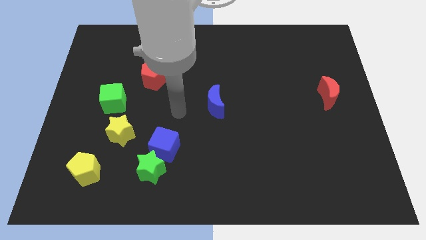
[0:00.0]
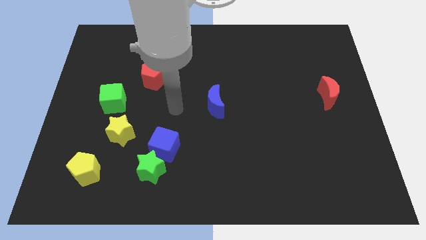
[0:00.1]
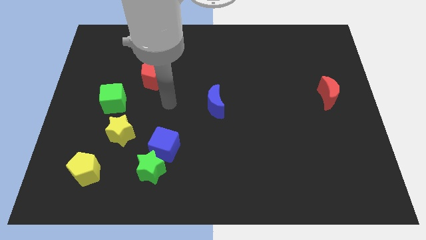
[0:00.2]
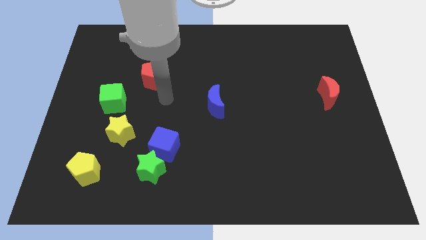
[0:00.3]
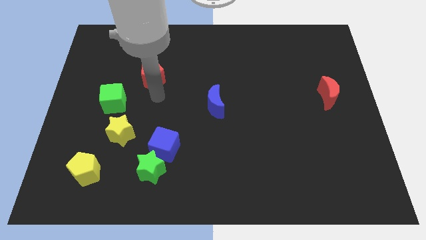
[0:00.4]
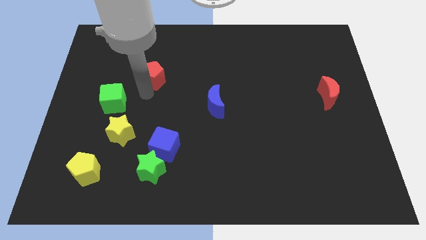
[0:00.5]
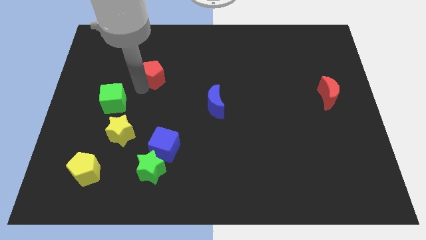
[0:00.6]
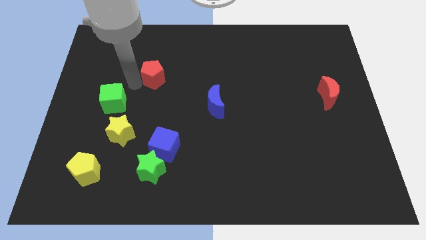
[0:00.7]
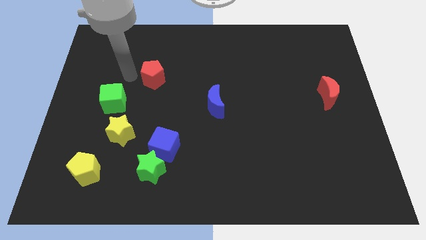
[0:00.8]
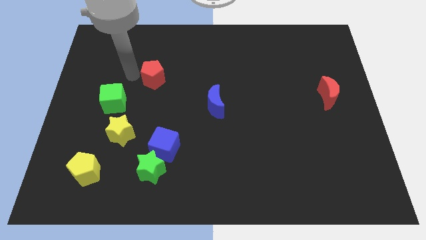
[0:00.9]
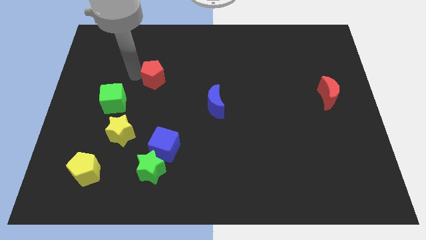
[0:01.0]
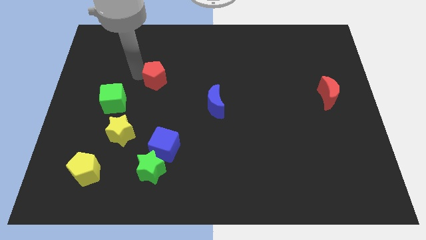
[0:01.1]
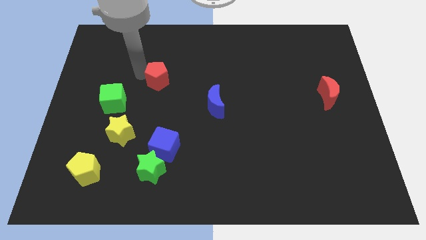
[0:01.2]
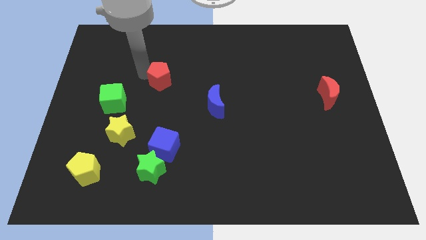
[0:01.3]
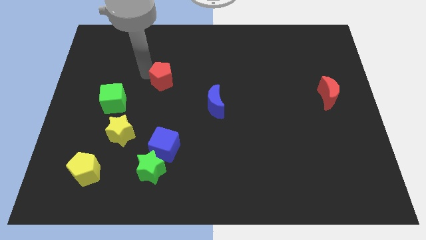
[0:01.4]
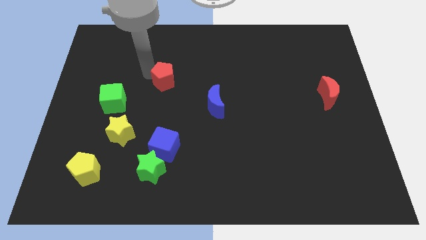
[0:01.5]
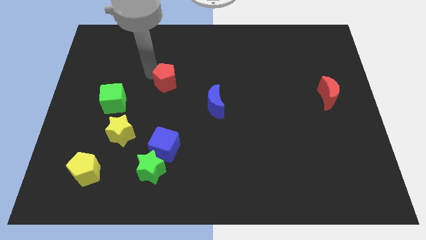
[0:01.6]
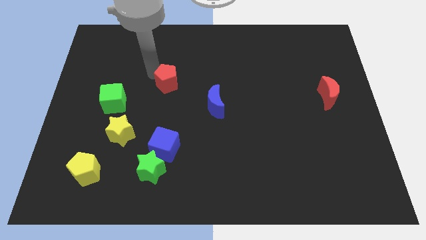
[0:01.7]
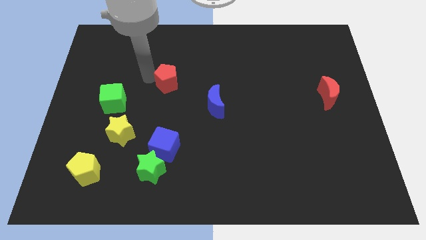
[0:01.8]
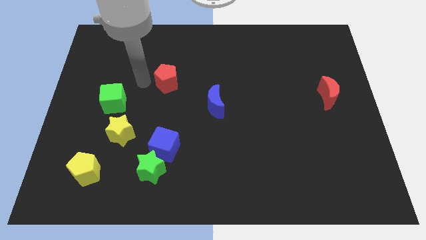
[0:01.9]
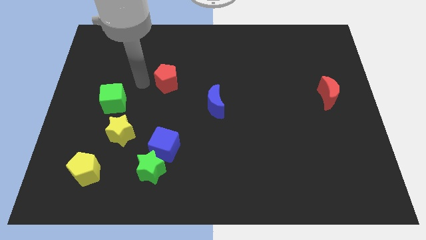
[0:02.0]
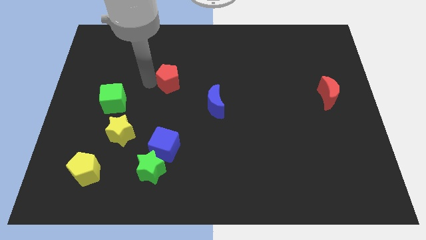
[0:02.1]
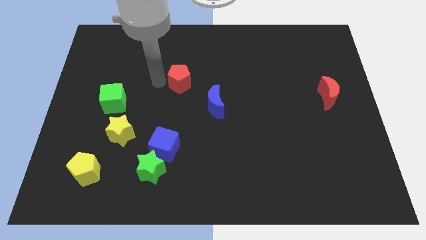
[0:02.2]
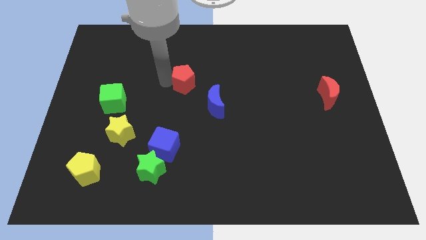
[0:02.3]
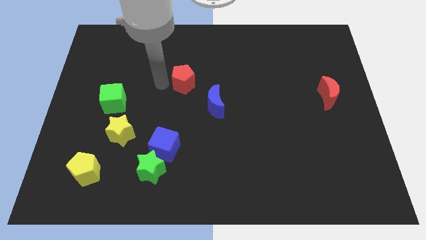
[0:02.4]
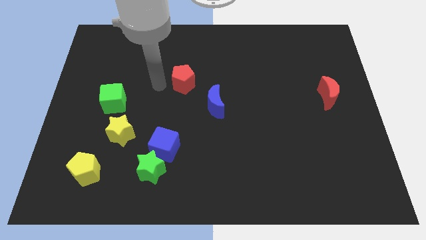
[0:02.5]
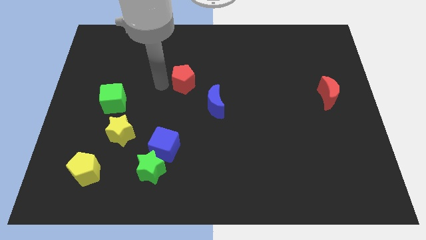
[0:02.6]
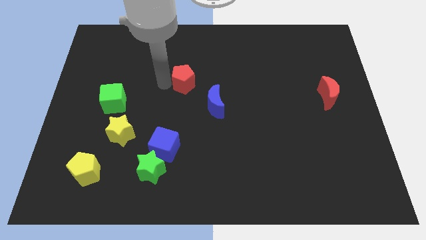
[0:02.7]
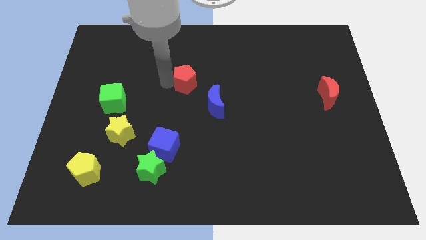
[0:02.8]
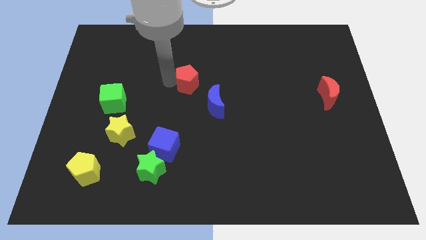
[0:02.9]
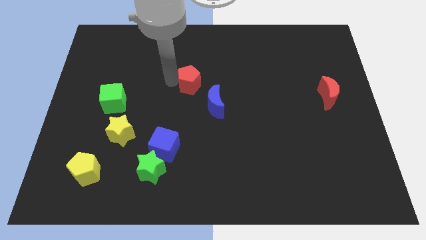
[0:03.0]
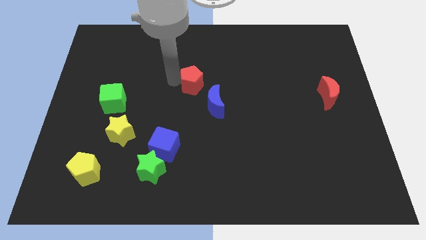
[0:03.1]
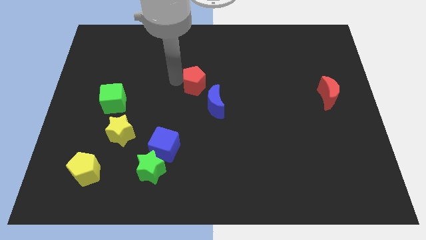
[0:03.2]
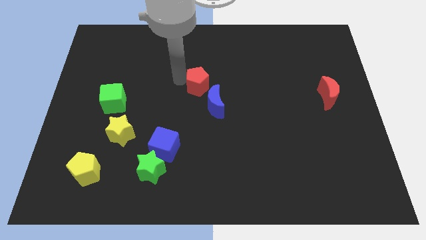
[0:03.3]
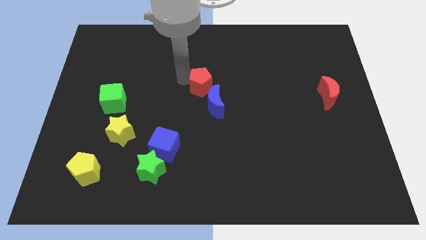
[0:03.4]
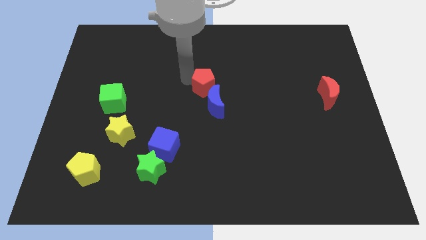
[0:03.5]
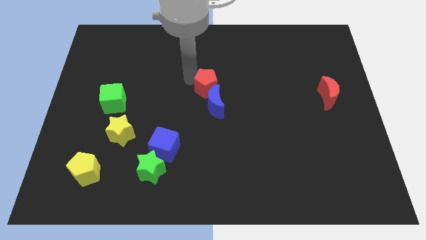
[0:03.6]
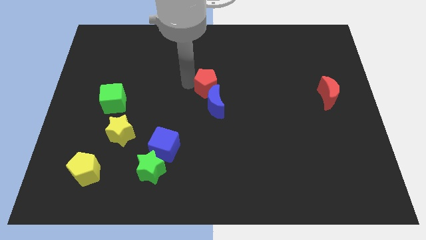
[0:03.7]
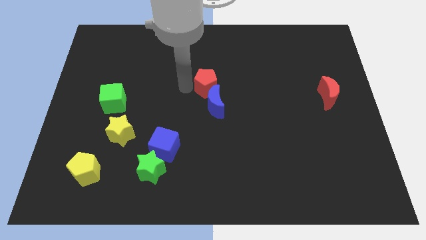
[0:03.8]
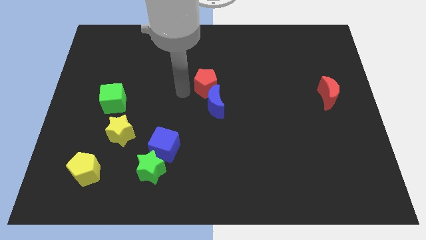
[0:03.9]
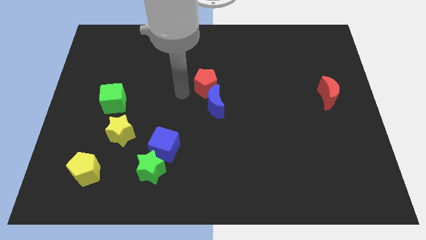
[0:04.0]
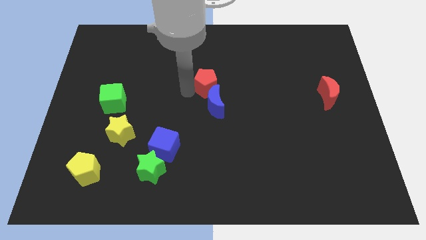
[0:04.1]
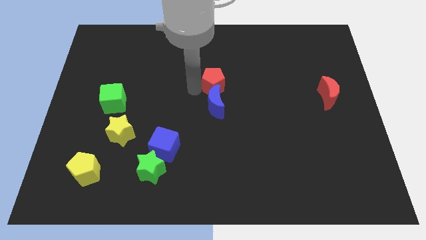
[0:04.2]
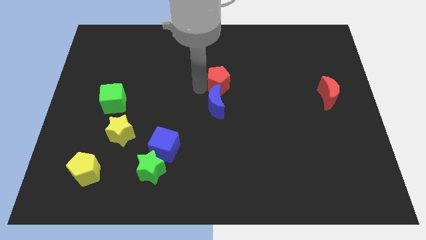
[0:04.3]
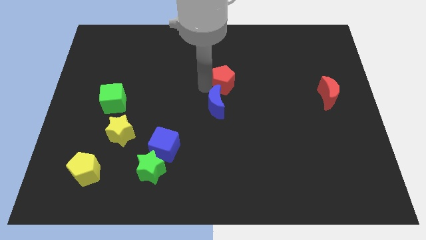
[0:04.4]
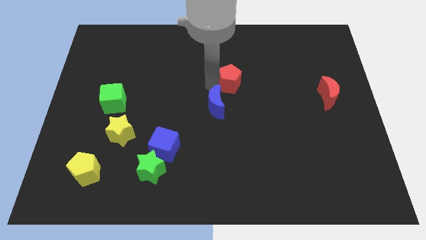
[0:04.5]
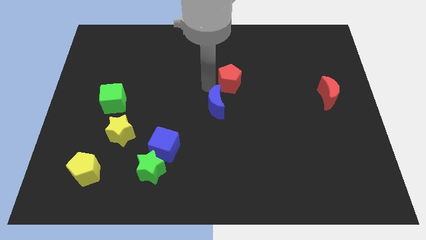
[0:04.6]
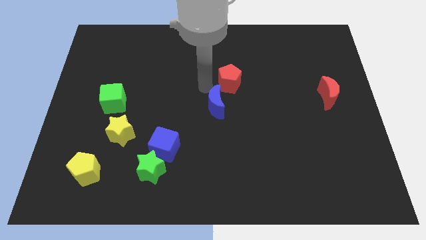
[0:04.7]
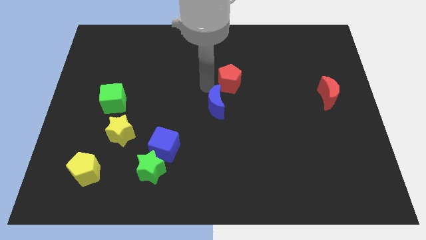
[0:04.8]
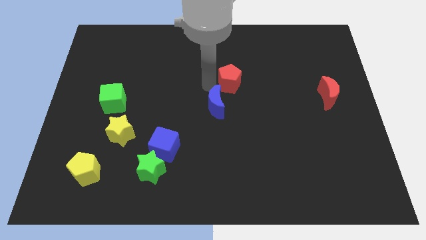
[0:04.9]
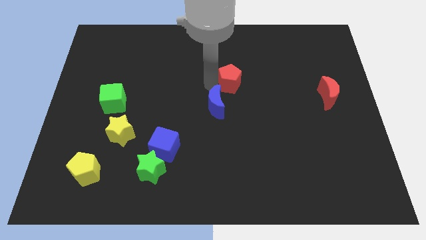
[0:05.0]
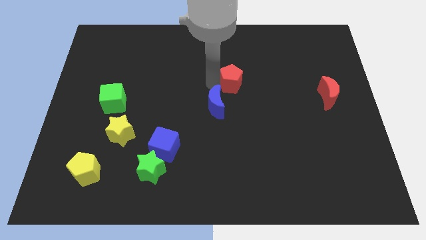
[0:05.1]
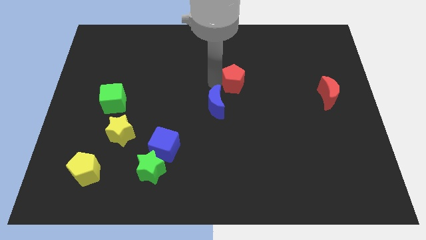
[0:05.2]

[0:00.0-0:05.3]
slide the red pentagon right

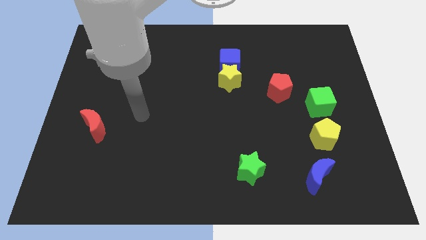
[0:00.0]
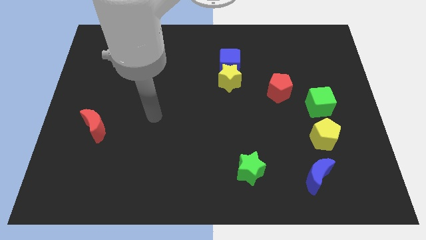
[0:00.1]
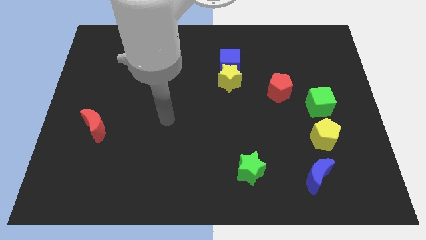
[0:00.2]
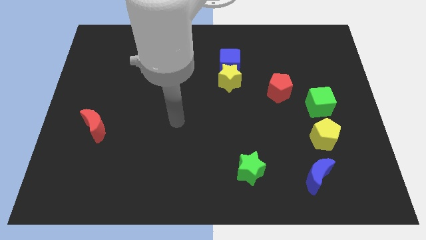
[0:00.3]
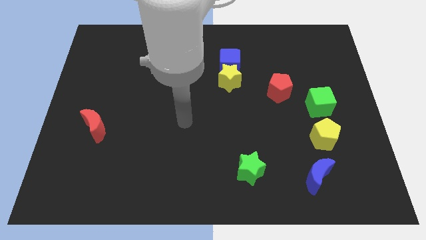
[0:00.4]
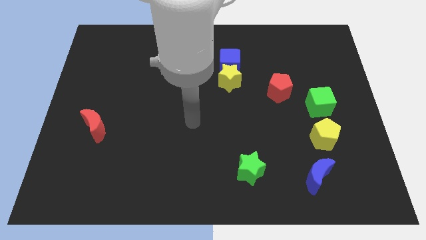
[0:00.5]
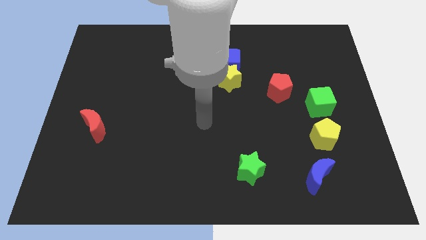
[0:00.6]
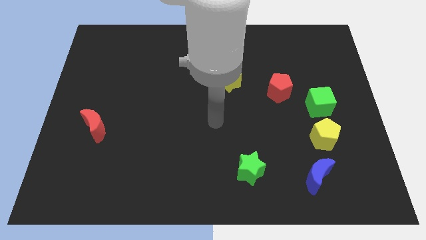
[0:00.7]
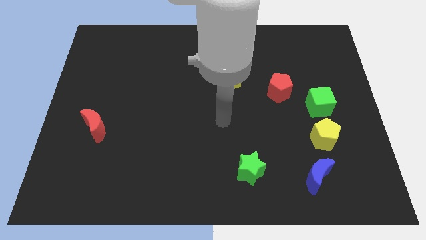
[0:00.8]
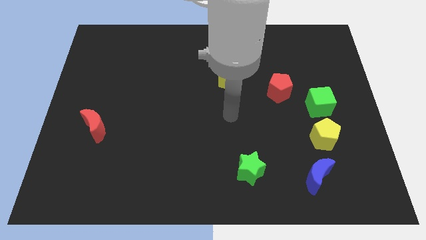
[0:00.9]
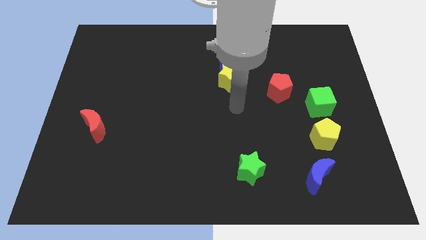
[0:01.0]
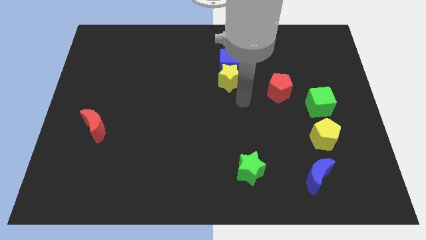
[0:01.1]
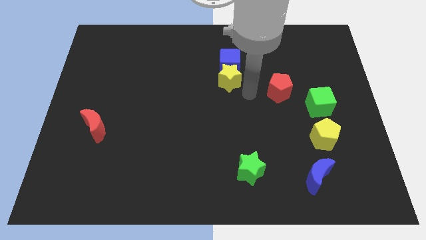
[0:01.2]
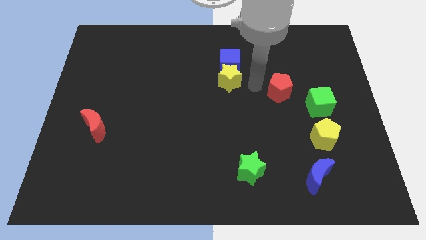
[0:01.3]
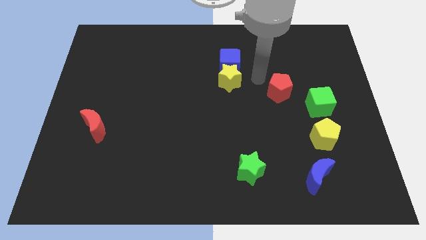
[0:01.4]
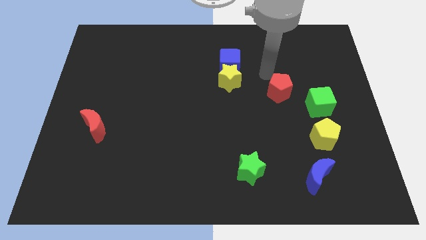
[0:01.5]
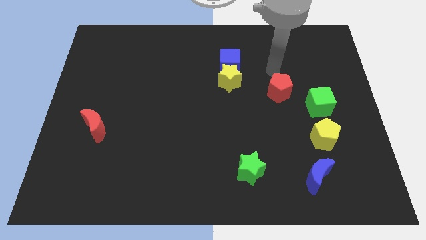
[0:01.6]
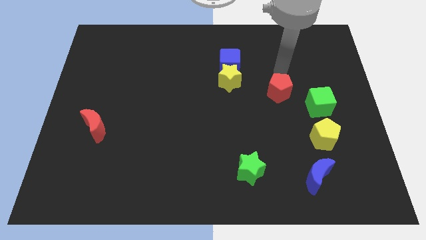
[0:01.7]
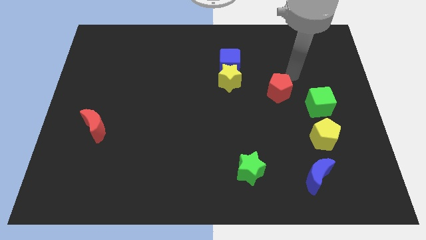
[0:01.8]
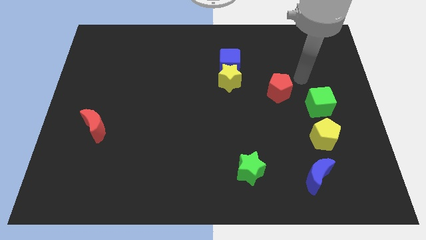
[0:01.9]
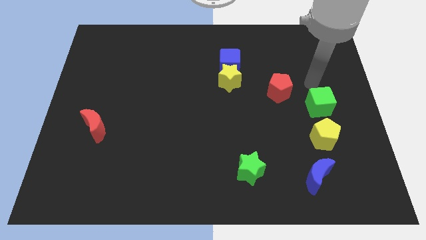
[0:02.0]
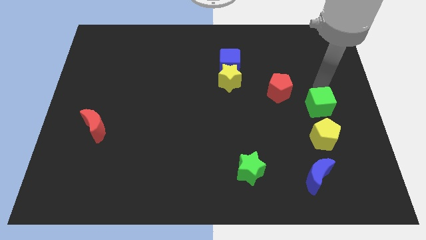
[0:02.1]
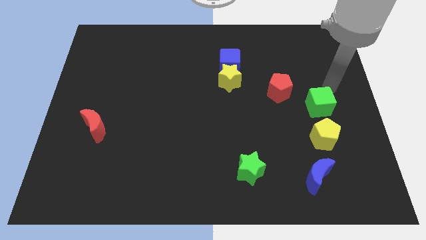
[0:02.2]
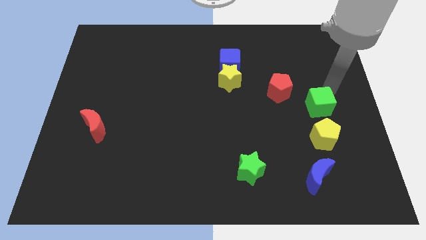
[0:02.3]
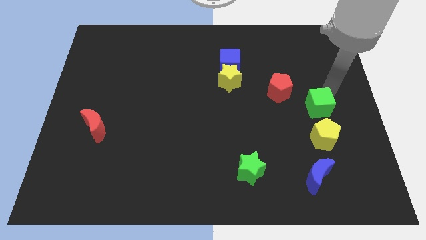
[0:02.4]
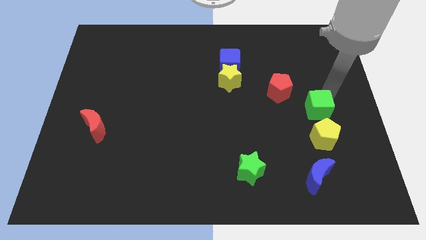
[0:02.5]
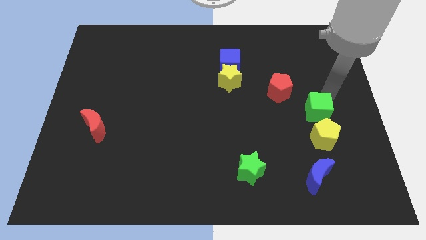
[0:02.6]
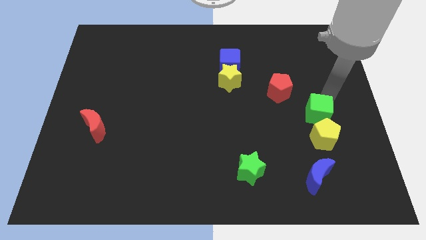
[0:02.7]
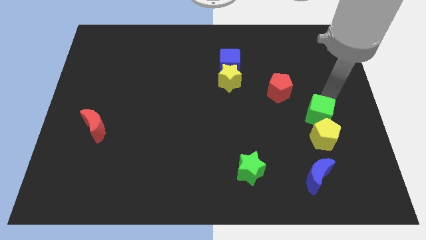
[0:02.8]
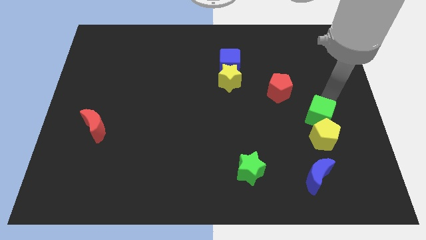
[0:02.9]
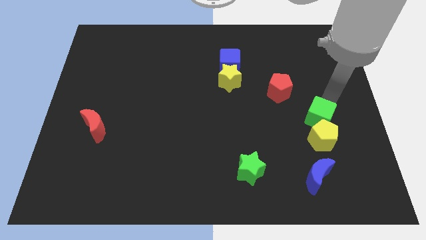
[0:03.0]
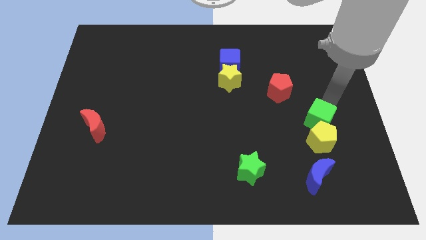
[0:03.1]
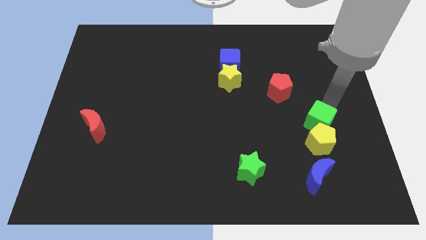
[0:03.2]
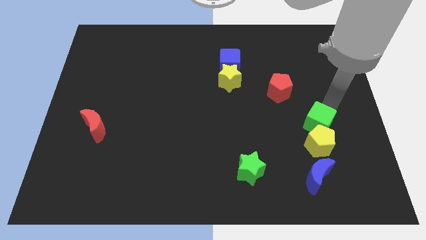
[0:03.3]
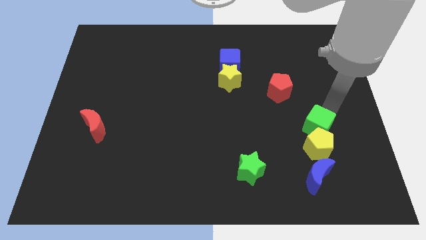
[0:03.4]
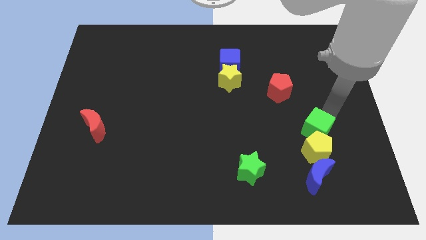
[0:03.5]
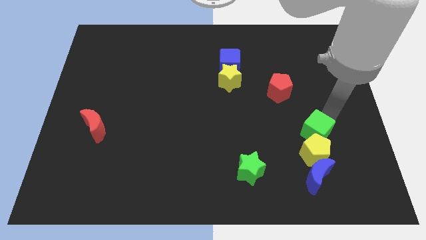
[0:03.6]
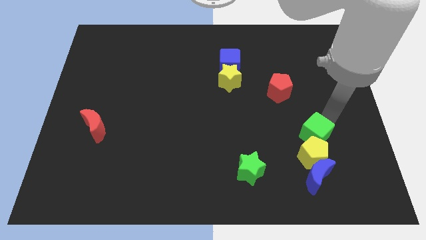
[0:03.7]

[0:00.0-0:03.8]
slightly slide the green cube downwards and to the left
